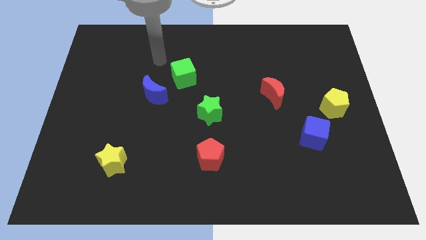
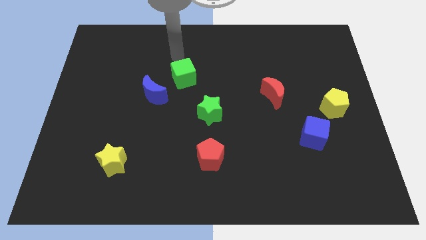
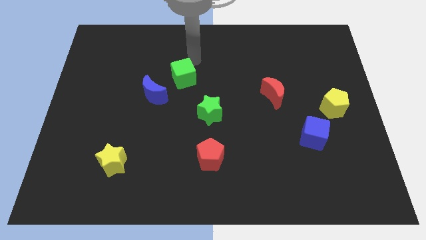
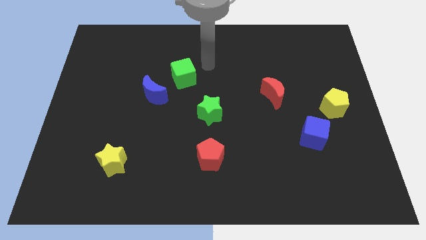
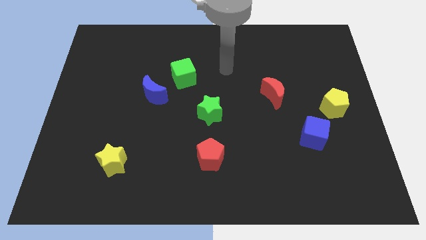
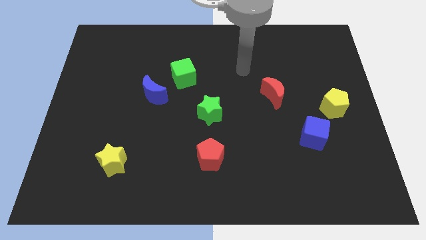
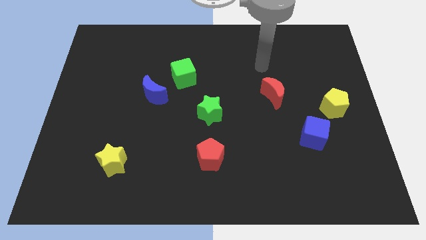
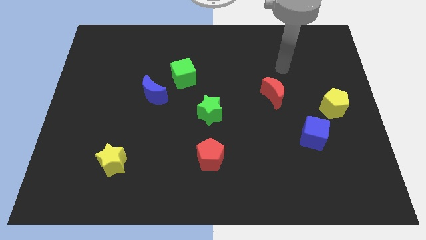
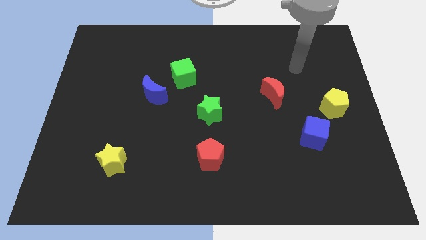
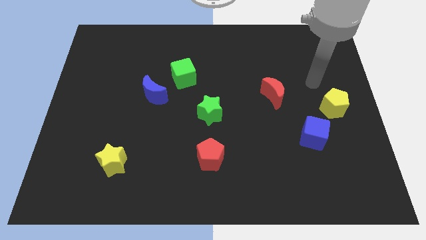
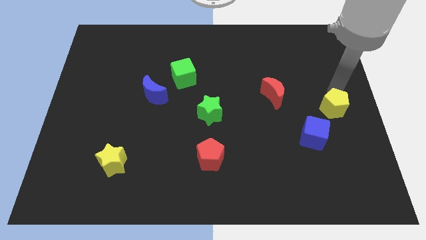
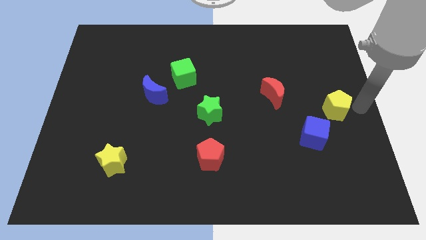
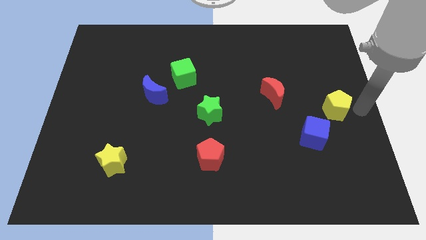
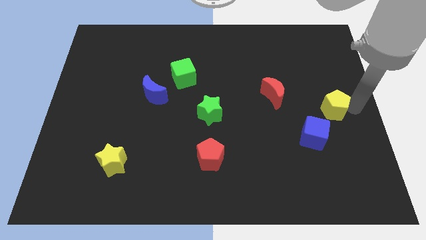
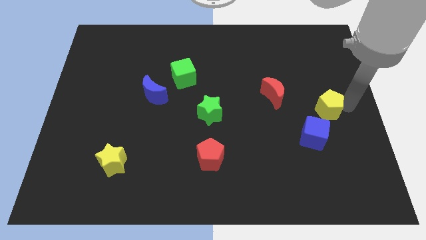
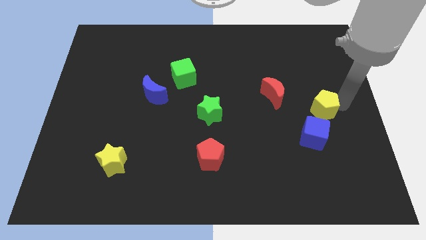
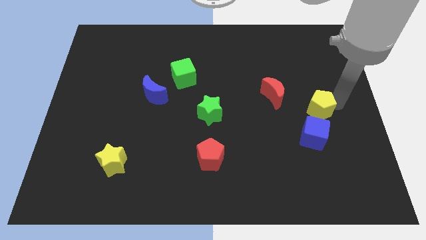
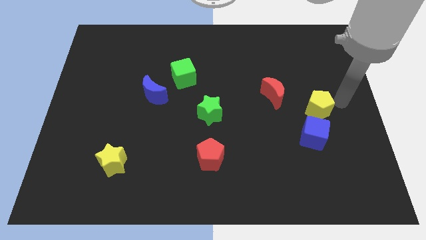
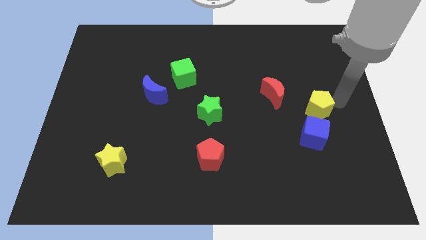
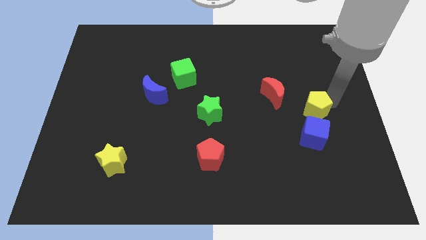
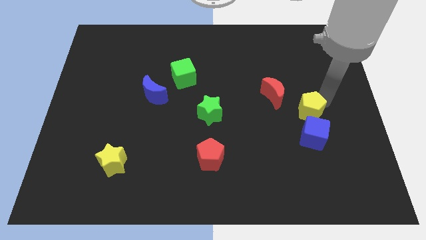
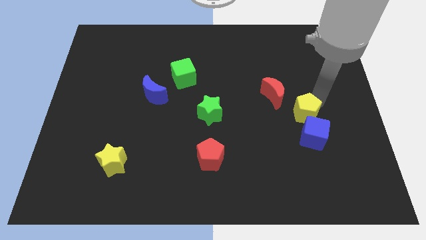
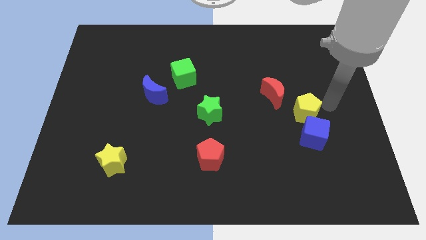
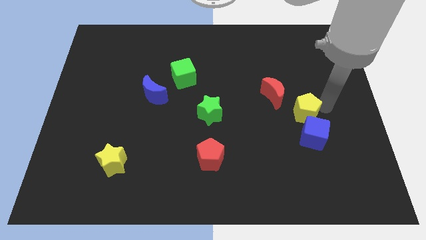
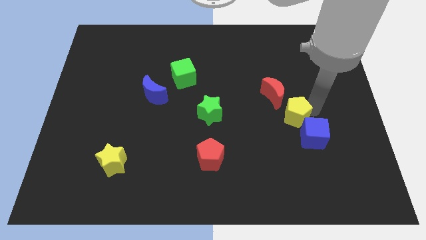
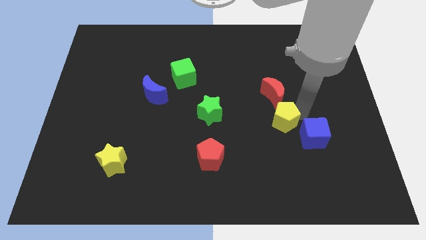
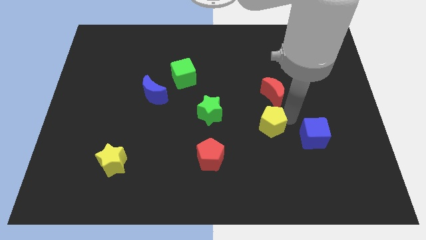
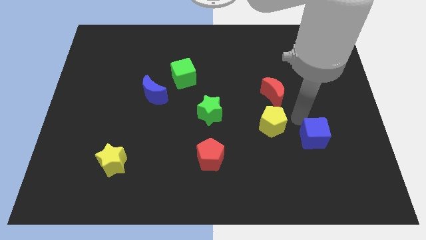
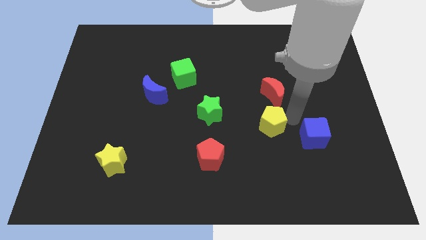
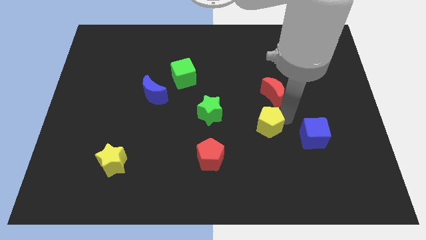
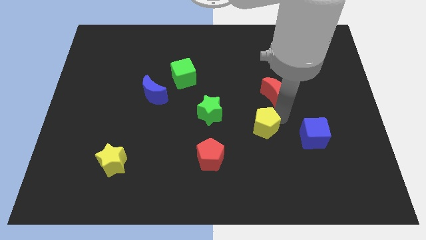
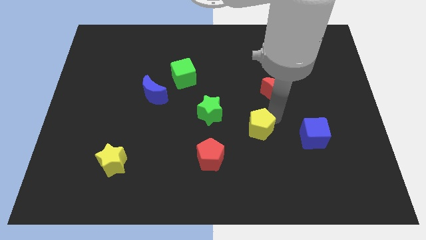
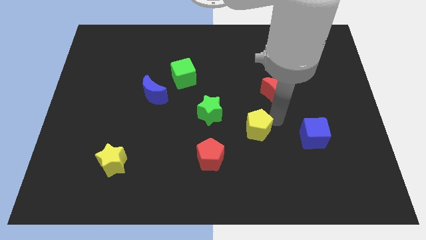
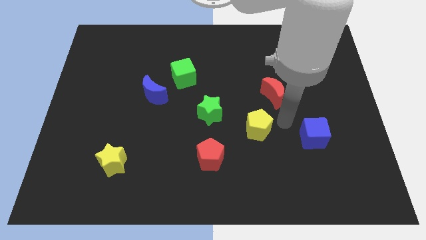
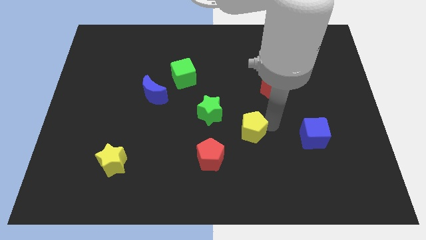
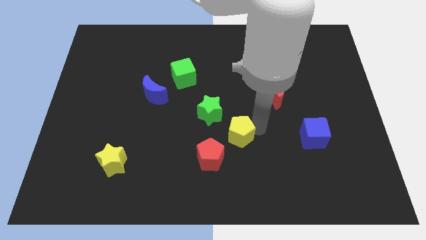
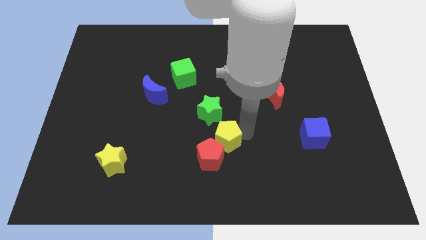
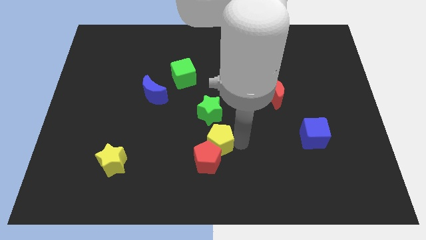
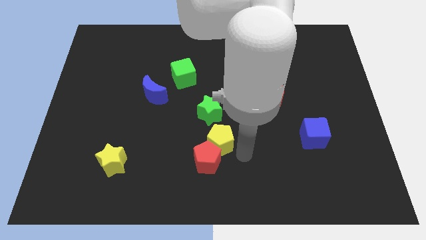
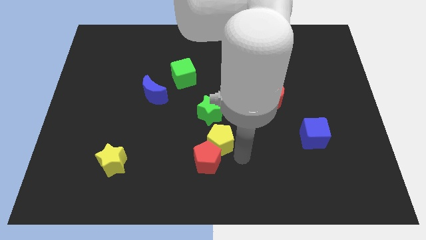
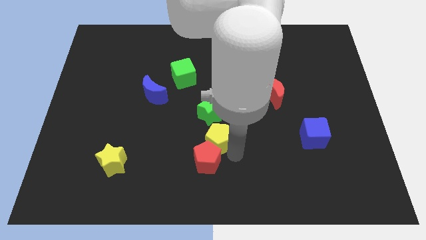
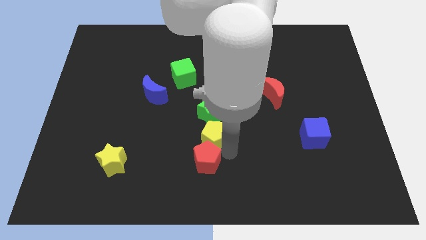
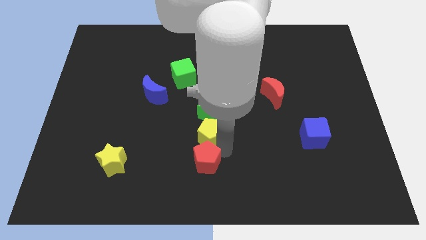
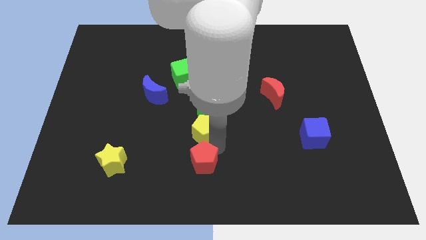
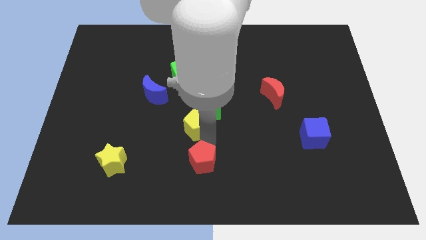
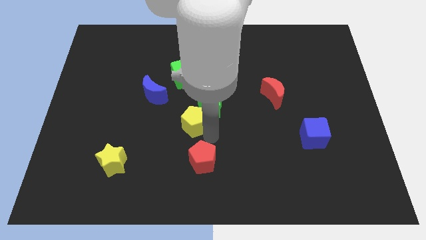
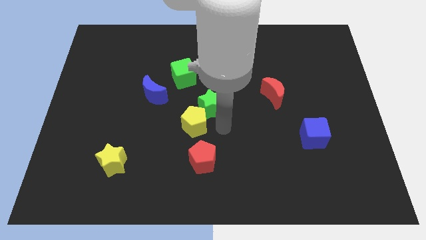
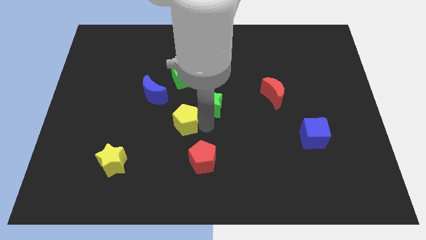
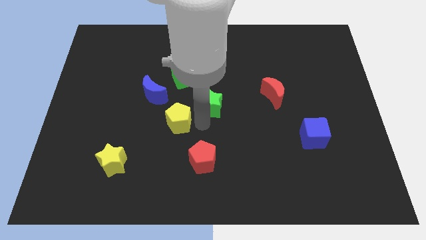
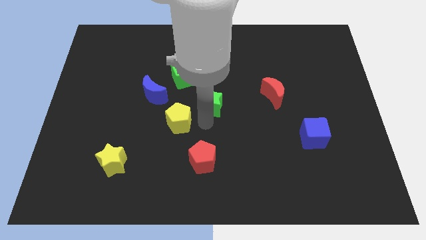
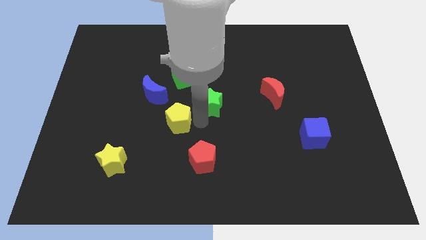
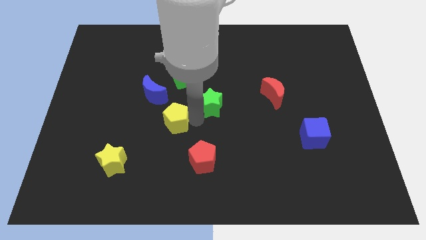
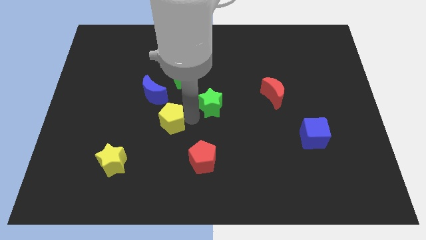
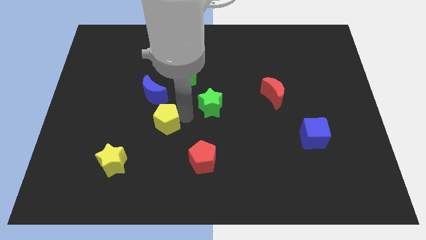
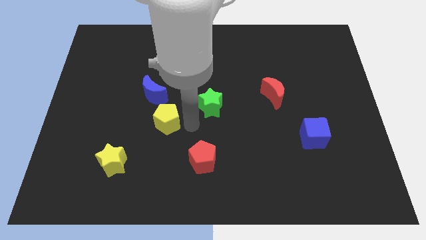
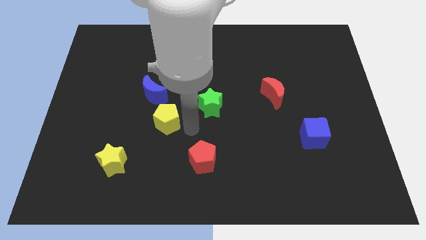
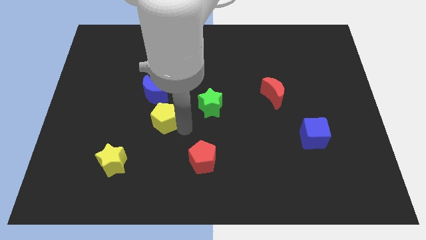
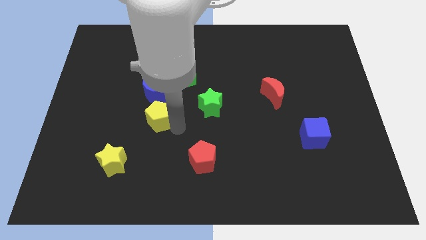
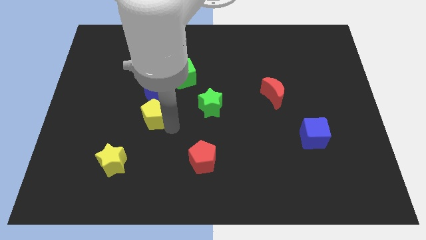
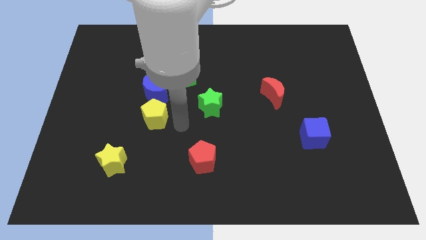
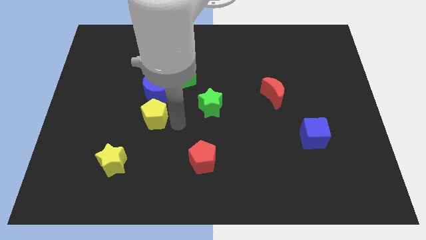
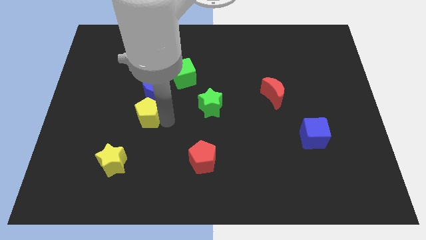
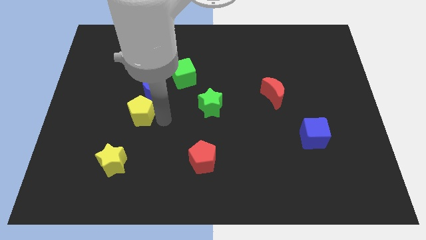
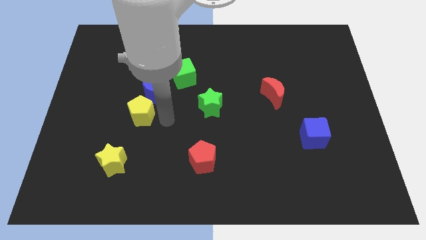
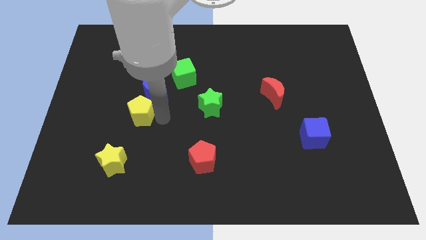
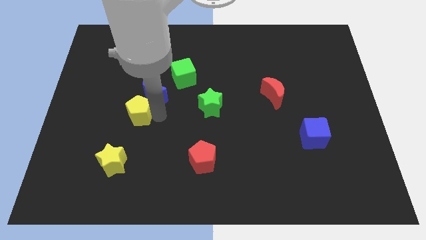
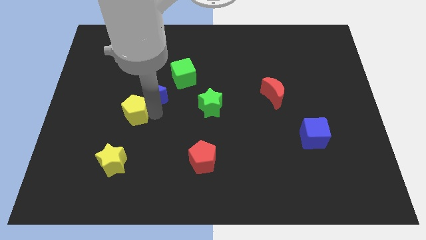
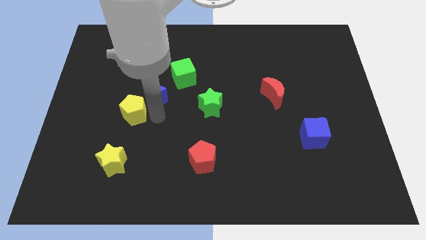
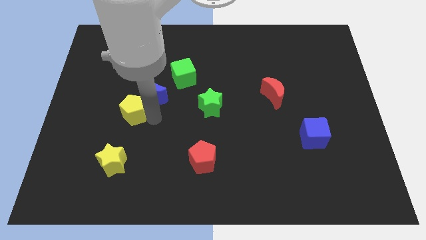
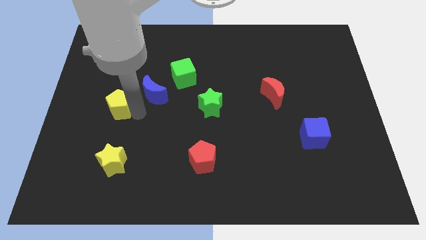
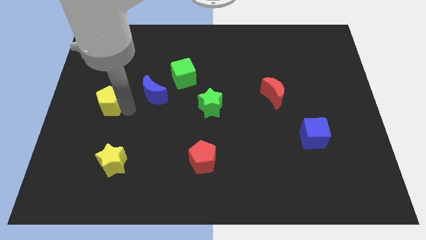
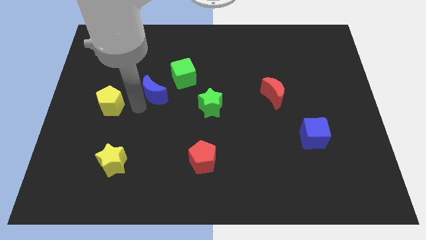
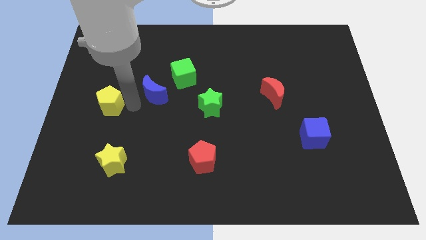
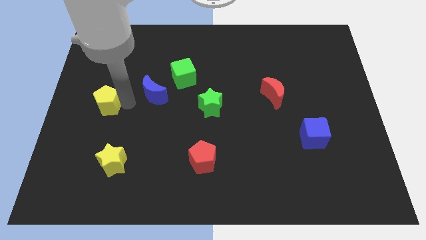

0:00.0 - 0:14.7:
move the yellow pentagon to the left side of the board
